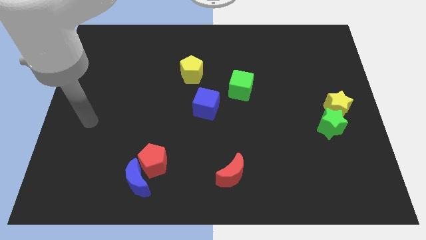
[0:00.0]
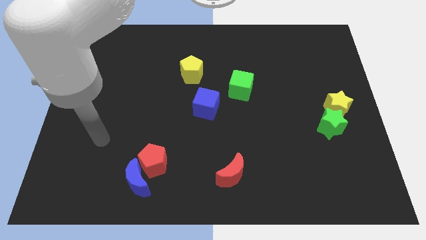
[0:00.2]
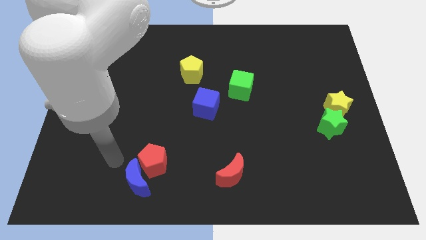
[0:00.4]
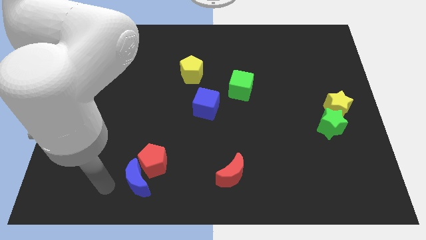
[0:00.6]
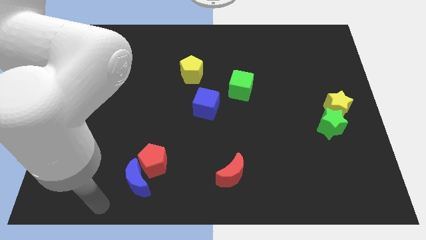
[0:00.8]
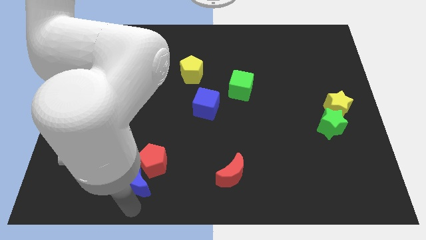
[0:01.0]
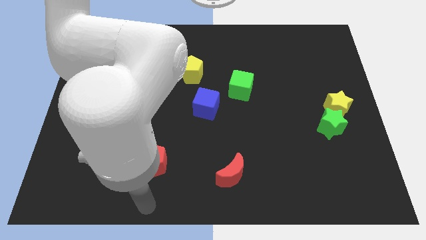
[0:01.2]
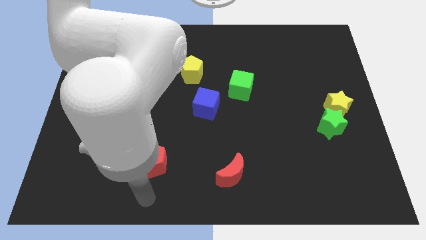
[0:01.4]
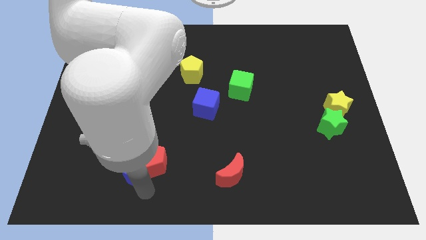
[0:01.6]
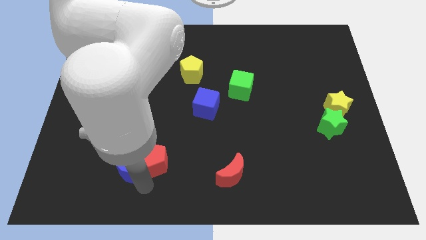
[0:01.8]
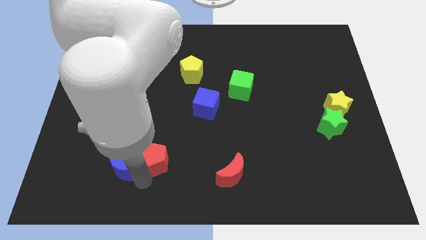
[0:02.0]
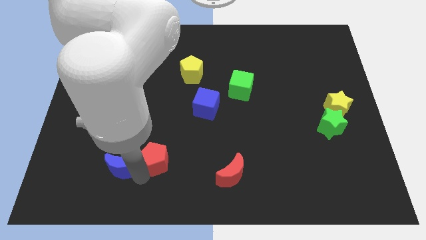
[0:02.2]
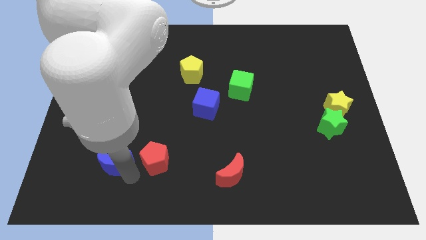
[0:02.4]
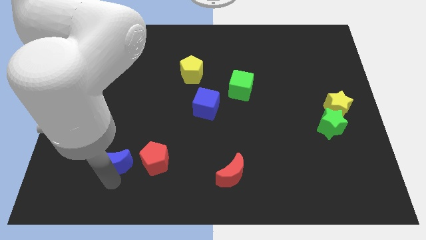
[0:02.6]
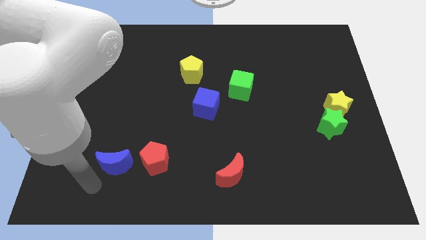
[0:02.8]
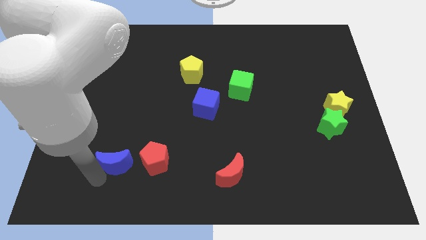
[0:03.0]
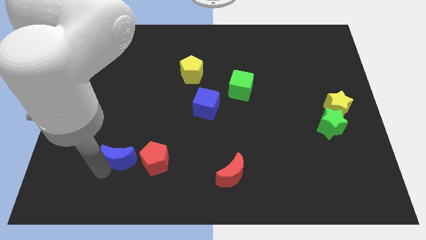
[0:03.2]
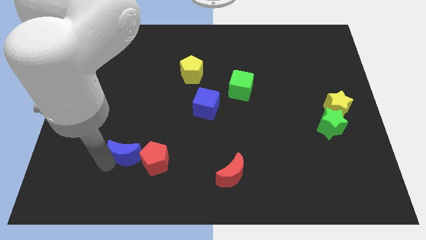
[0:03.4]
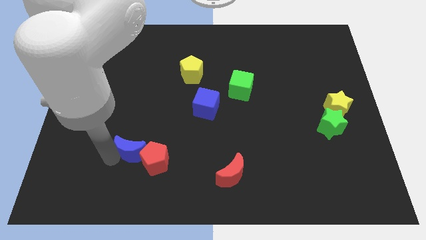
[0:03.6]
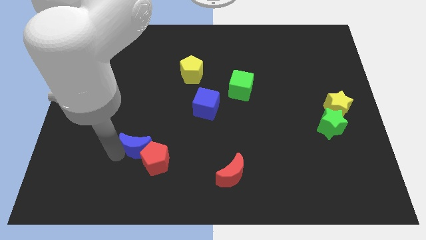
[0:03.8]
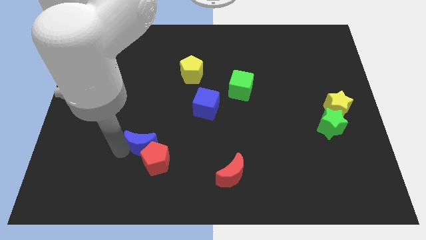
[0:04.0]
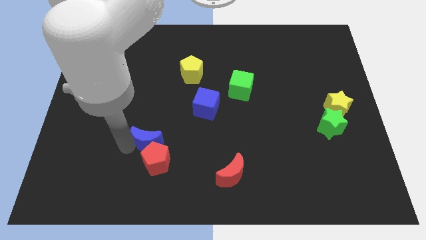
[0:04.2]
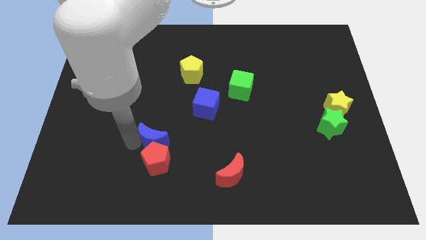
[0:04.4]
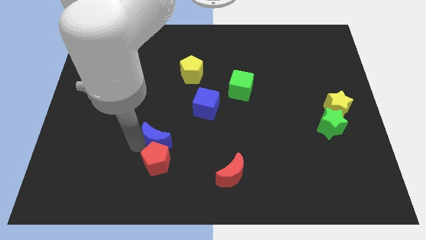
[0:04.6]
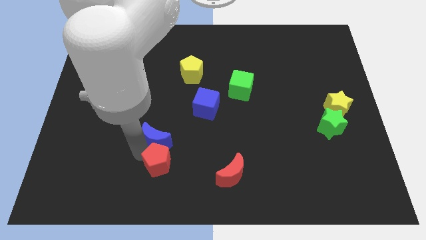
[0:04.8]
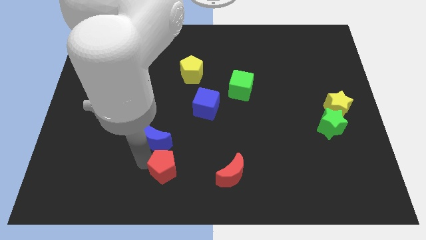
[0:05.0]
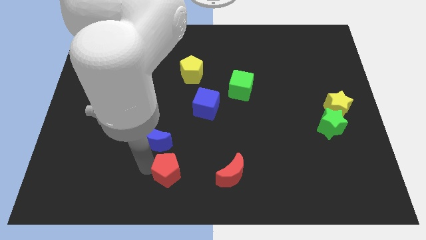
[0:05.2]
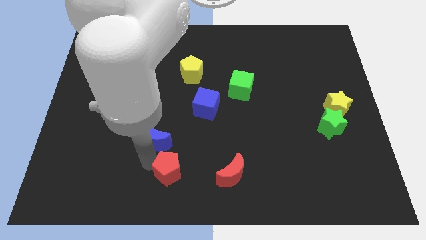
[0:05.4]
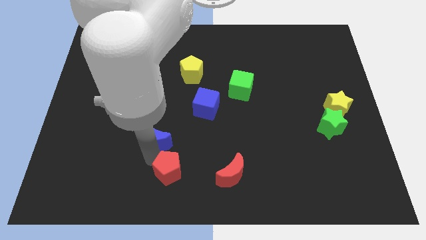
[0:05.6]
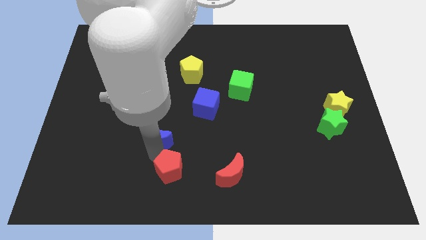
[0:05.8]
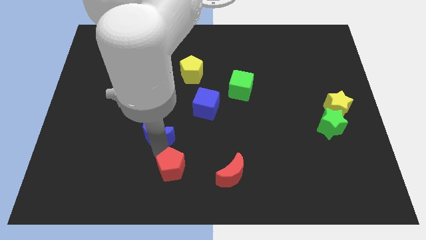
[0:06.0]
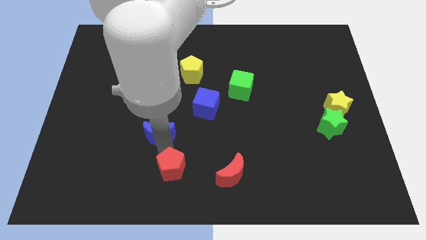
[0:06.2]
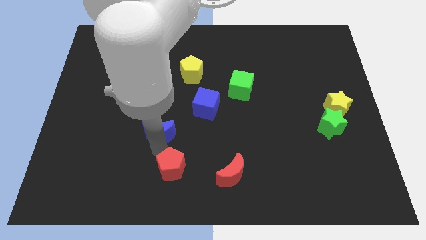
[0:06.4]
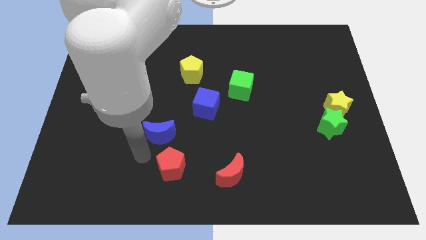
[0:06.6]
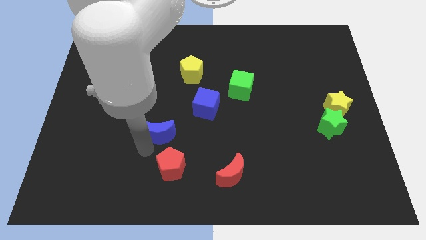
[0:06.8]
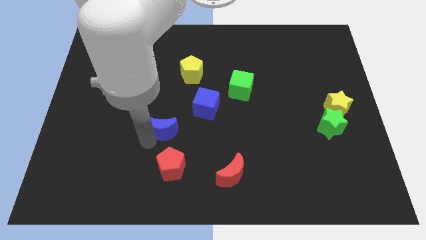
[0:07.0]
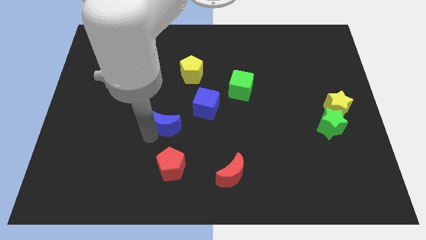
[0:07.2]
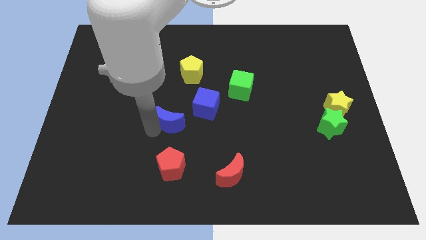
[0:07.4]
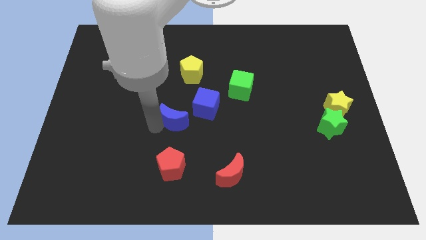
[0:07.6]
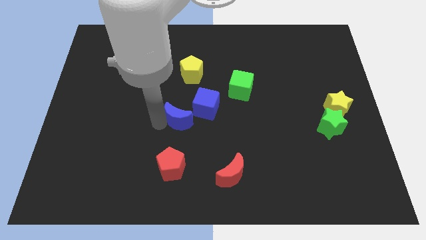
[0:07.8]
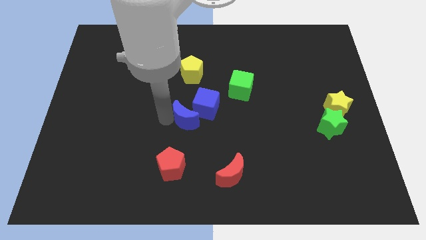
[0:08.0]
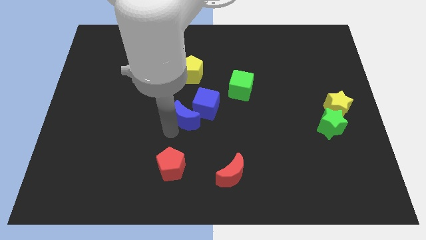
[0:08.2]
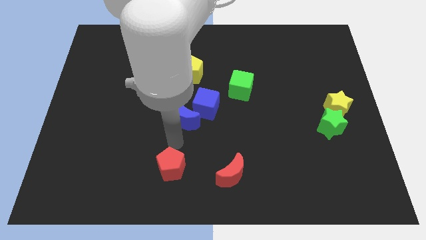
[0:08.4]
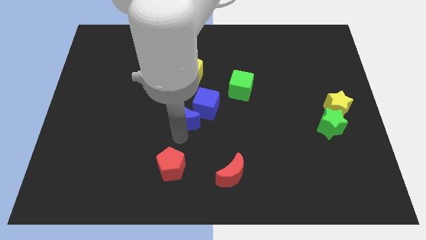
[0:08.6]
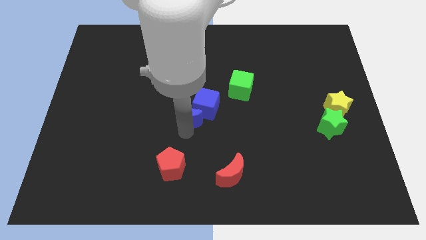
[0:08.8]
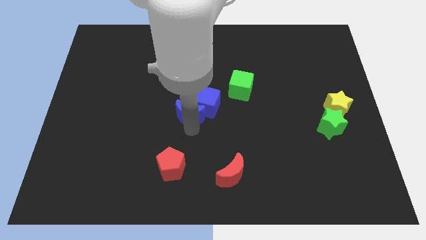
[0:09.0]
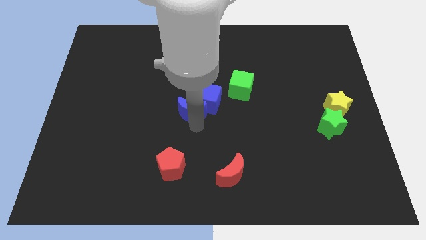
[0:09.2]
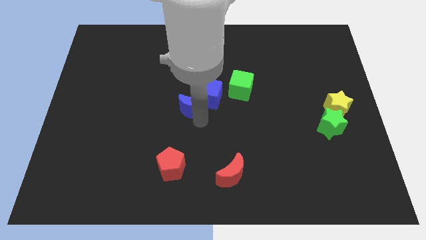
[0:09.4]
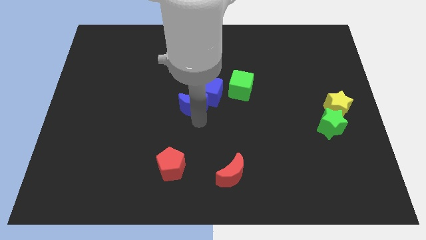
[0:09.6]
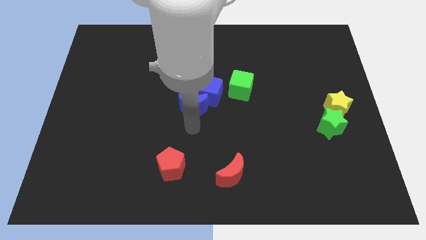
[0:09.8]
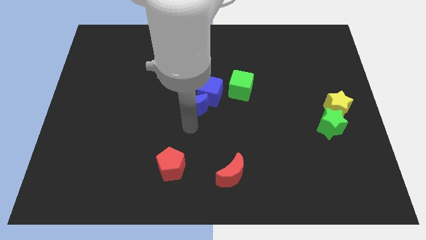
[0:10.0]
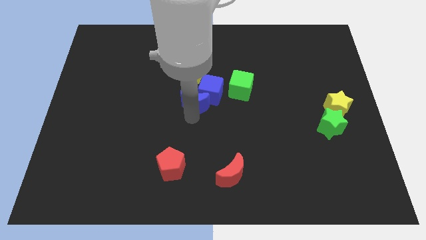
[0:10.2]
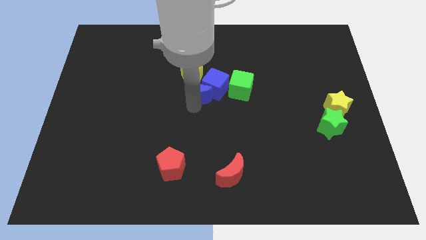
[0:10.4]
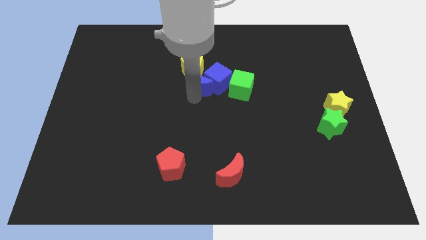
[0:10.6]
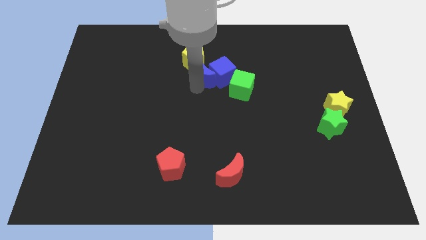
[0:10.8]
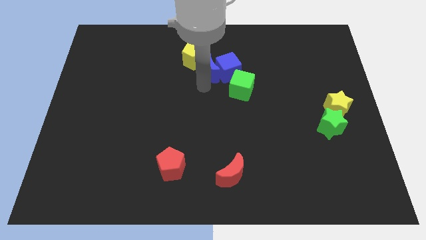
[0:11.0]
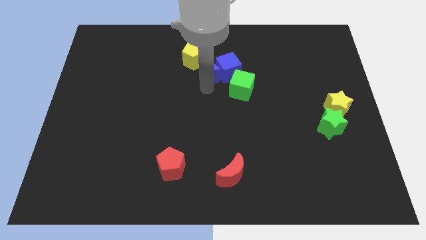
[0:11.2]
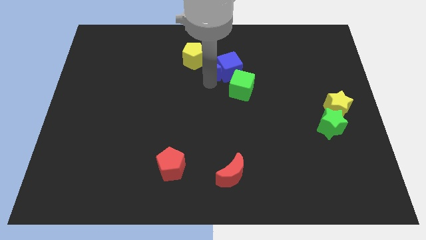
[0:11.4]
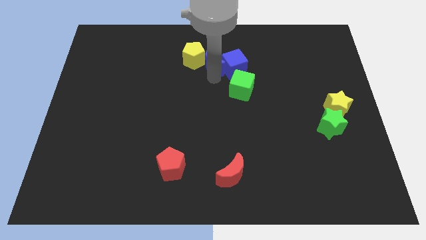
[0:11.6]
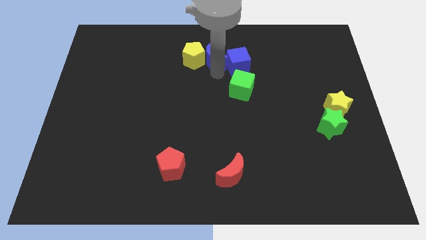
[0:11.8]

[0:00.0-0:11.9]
put the blue moon to the top right of the yellow pentagon
